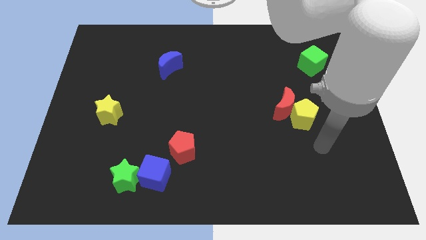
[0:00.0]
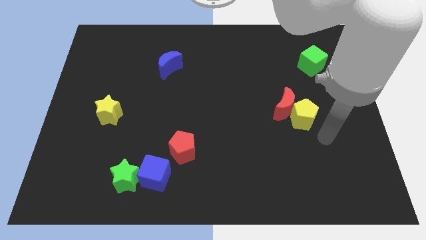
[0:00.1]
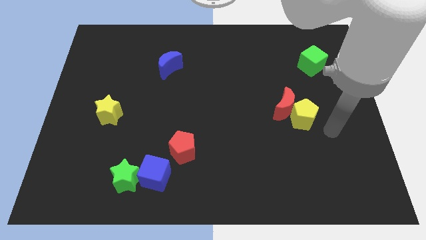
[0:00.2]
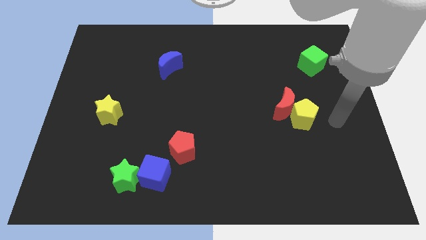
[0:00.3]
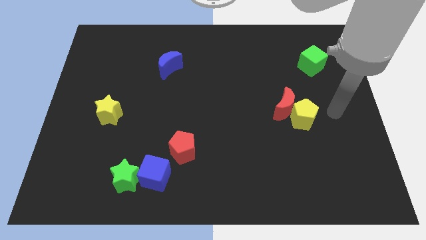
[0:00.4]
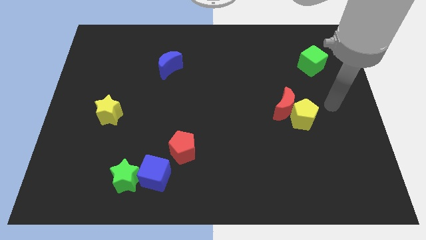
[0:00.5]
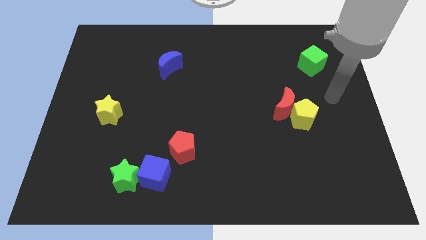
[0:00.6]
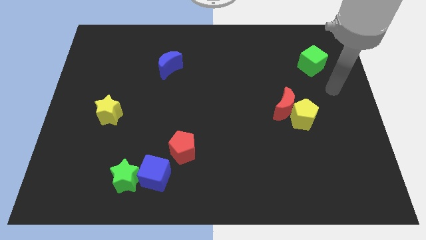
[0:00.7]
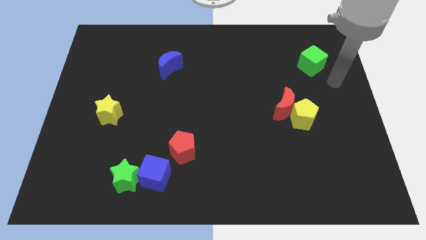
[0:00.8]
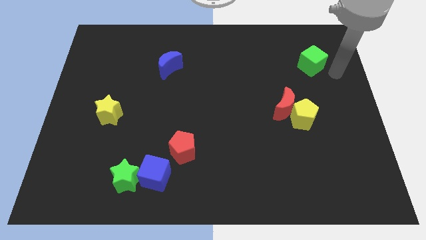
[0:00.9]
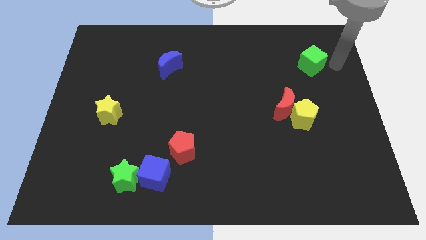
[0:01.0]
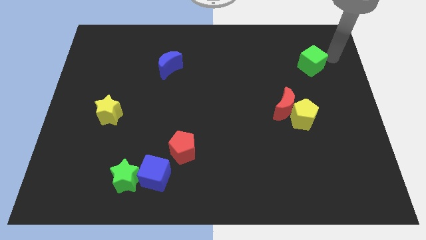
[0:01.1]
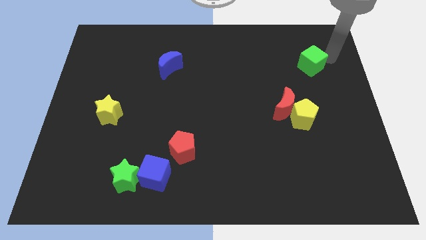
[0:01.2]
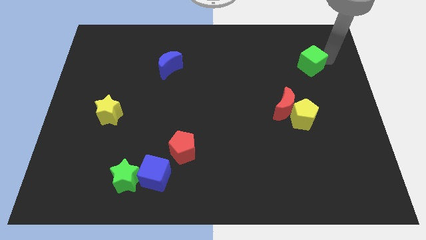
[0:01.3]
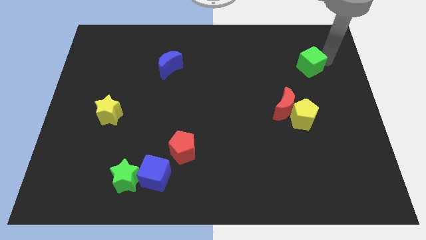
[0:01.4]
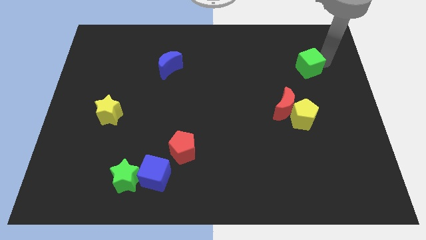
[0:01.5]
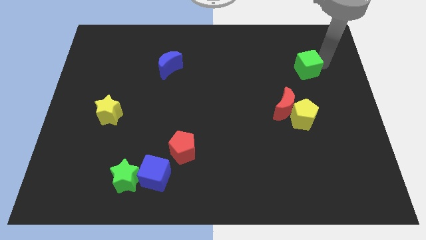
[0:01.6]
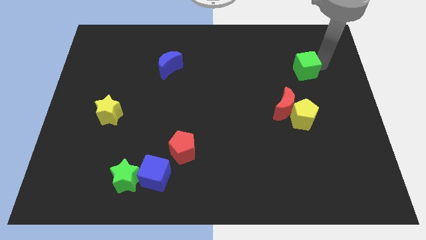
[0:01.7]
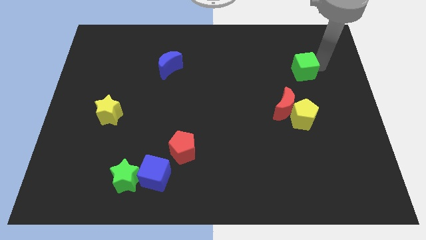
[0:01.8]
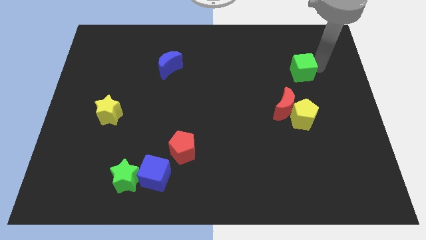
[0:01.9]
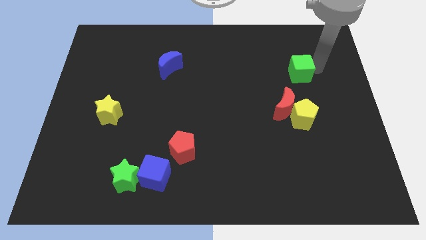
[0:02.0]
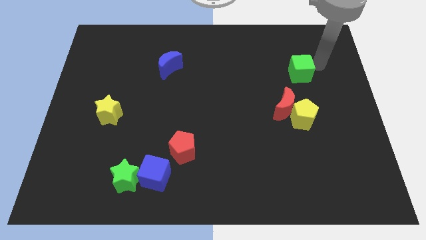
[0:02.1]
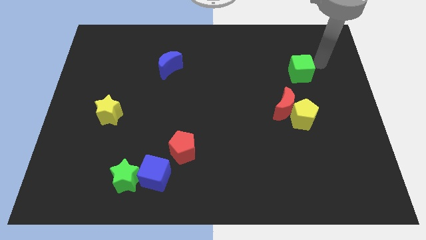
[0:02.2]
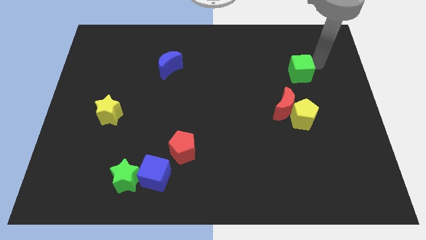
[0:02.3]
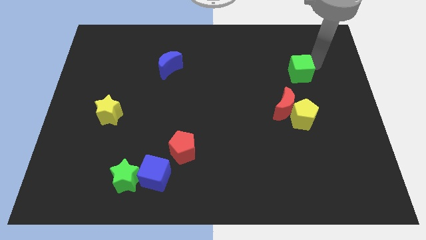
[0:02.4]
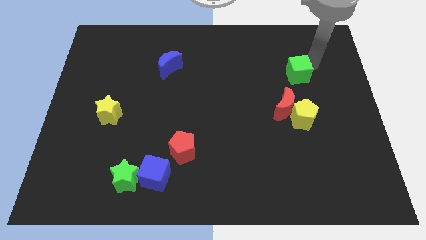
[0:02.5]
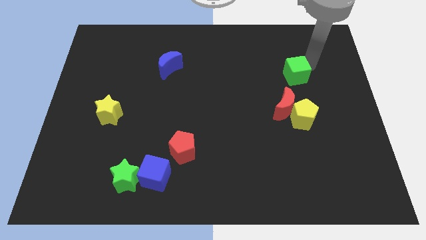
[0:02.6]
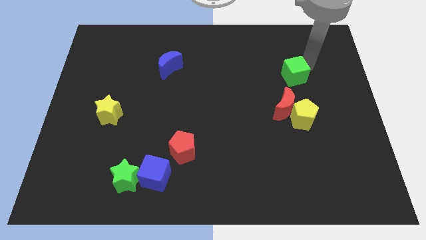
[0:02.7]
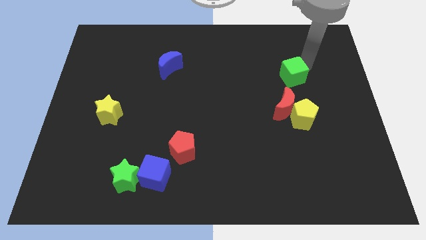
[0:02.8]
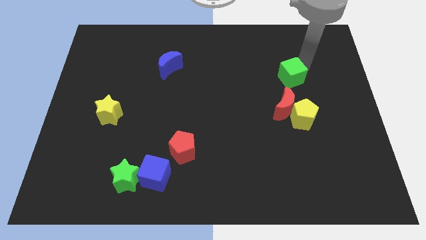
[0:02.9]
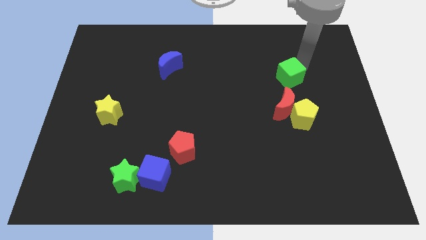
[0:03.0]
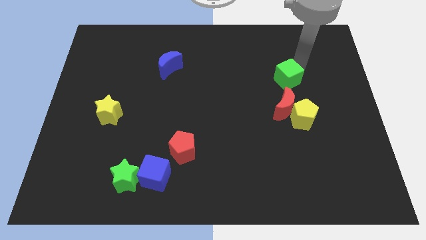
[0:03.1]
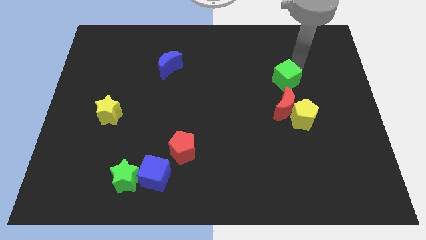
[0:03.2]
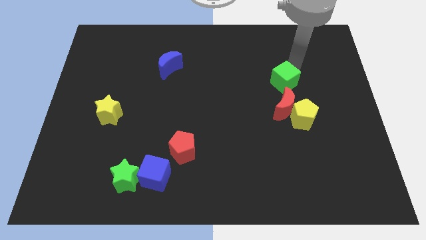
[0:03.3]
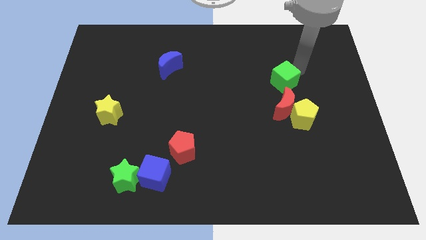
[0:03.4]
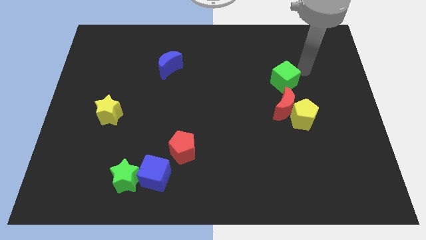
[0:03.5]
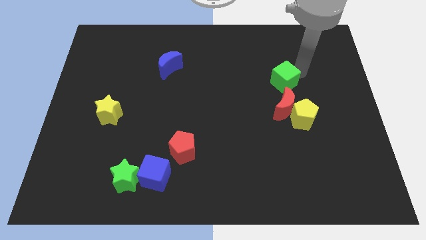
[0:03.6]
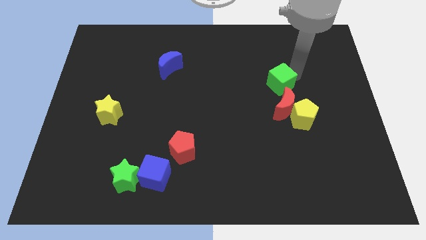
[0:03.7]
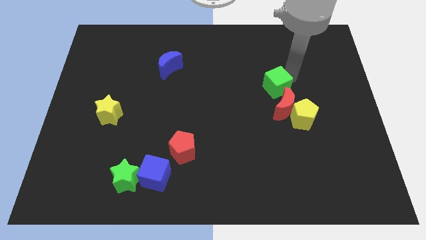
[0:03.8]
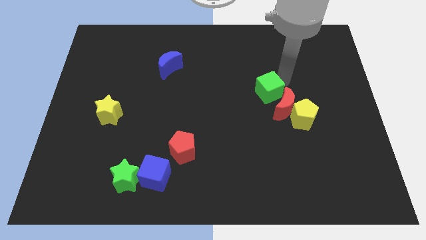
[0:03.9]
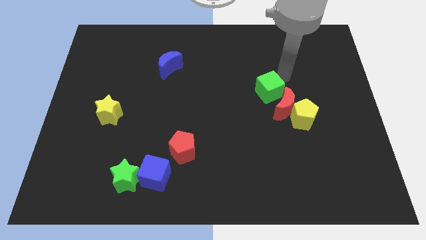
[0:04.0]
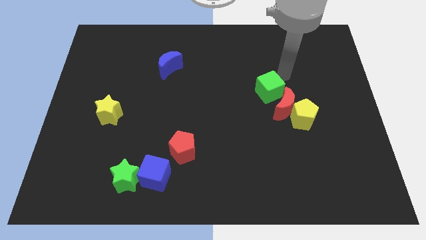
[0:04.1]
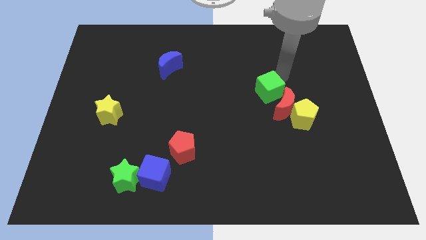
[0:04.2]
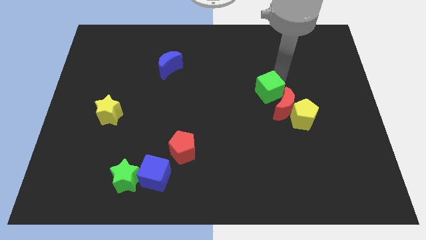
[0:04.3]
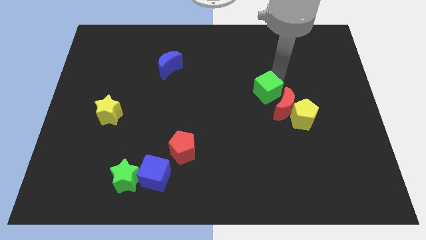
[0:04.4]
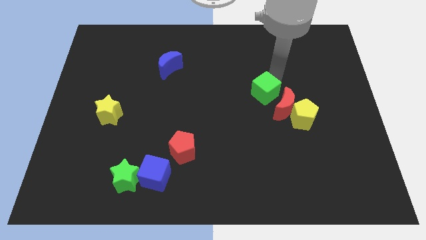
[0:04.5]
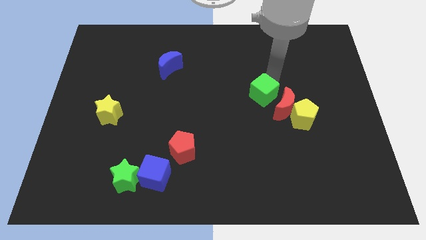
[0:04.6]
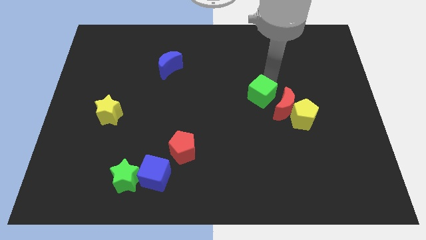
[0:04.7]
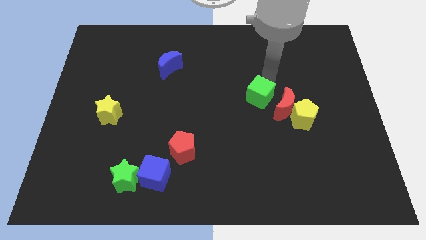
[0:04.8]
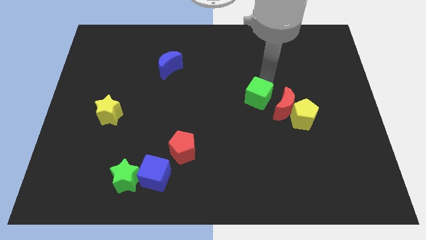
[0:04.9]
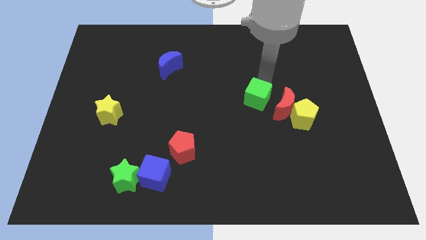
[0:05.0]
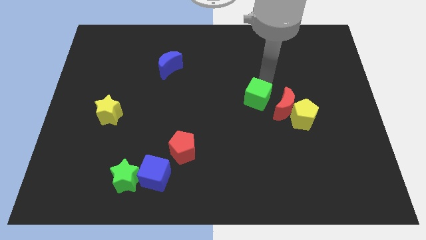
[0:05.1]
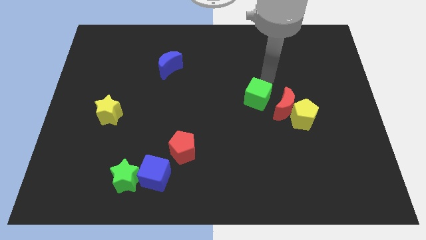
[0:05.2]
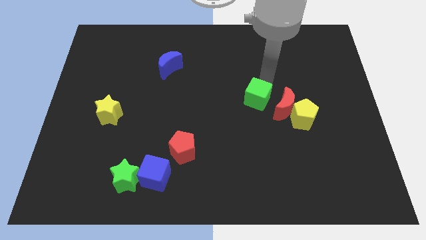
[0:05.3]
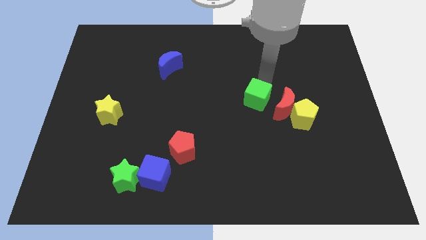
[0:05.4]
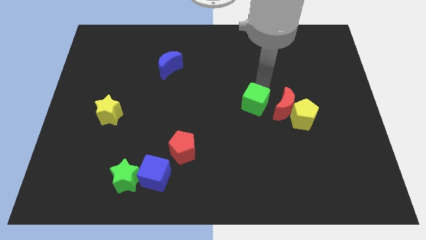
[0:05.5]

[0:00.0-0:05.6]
move the green cube downwards and then to the left

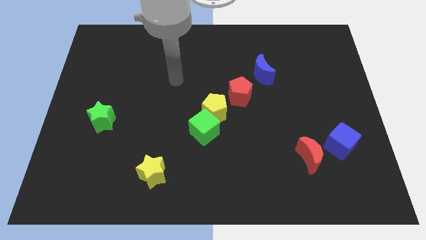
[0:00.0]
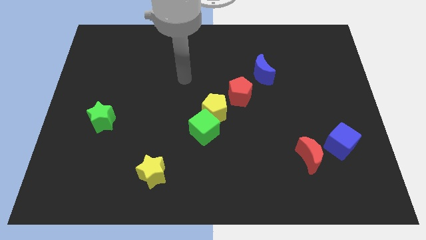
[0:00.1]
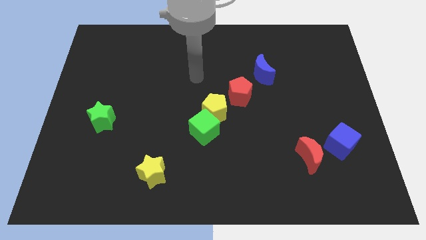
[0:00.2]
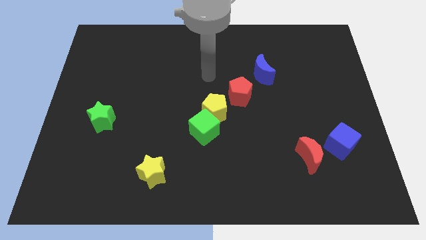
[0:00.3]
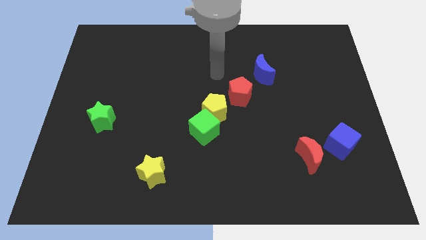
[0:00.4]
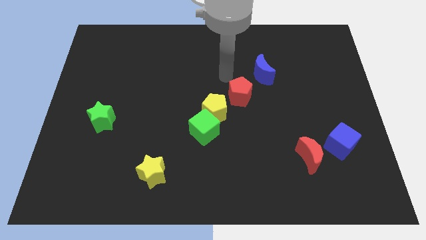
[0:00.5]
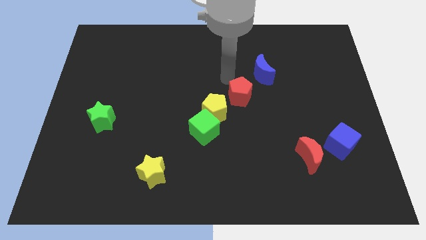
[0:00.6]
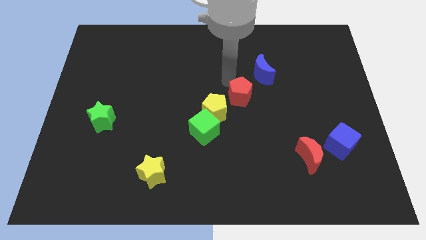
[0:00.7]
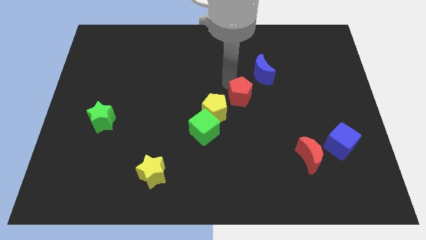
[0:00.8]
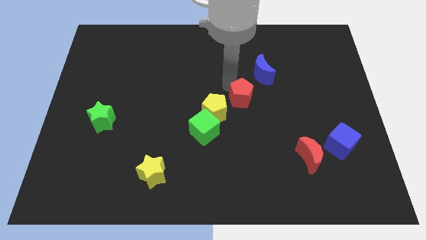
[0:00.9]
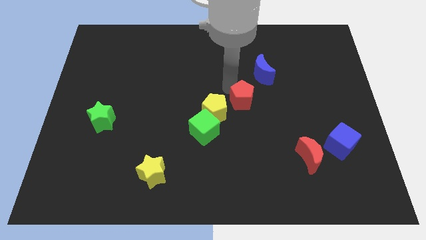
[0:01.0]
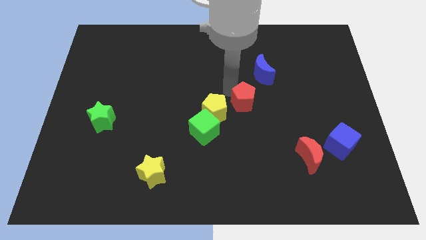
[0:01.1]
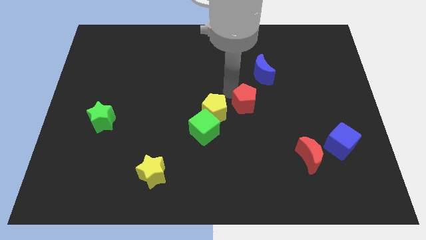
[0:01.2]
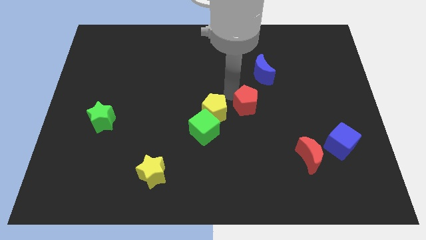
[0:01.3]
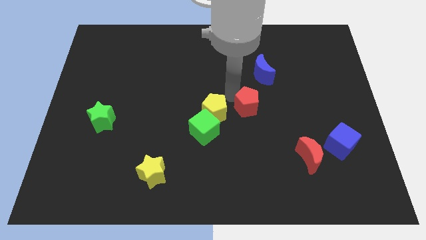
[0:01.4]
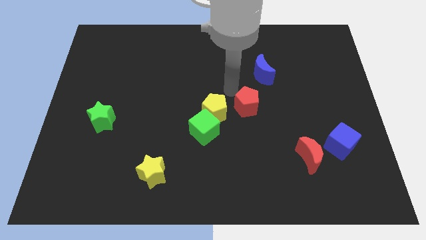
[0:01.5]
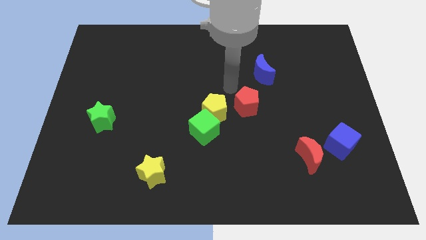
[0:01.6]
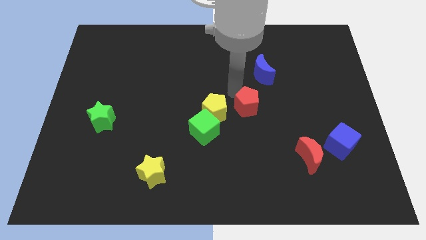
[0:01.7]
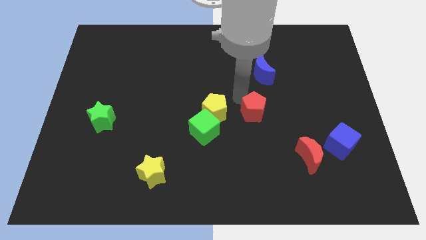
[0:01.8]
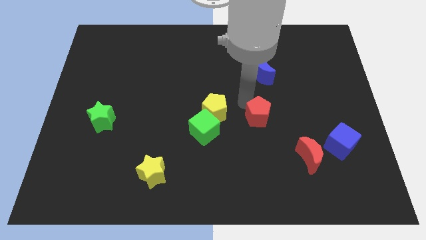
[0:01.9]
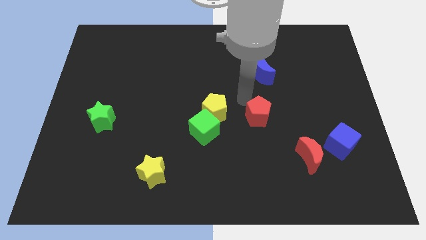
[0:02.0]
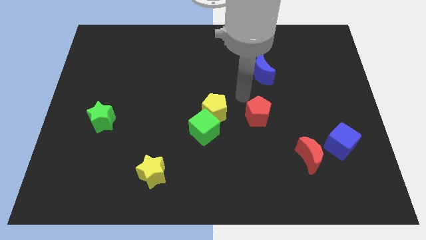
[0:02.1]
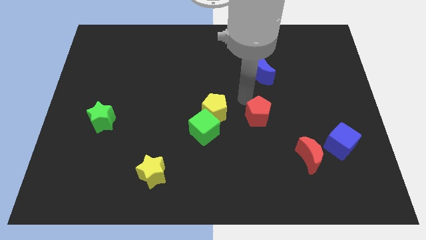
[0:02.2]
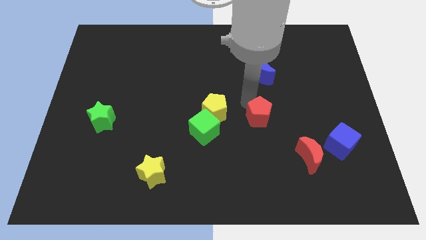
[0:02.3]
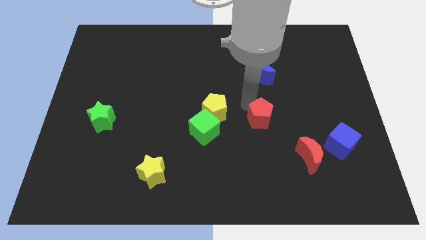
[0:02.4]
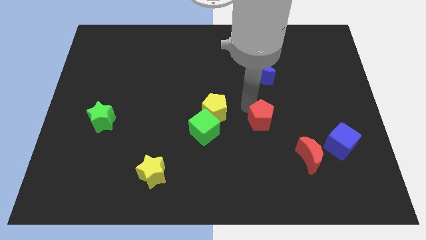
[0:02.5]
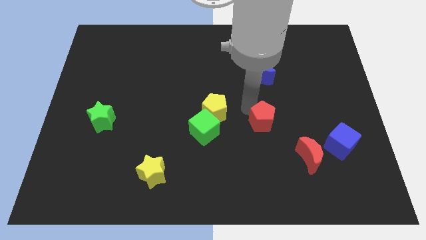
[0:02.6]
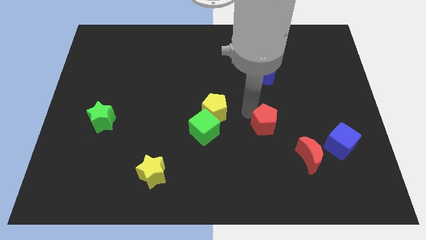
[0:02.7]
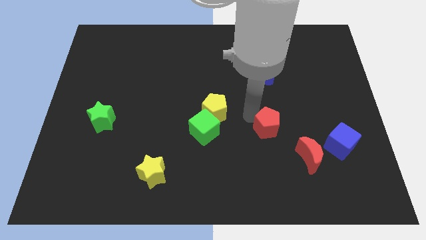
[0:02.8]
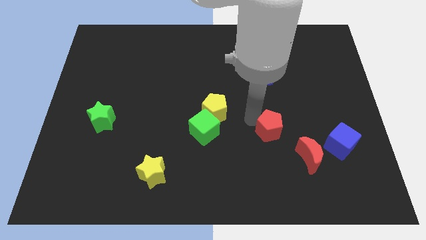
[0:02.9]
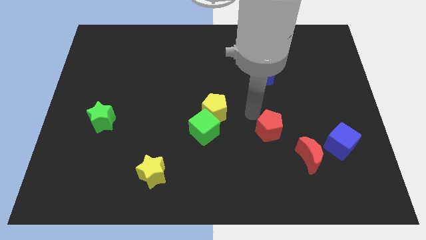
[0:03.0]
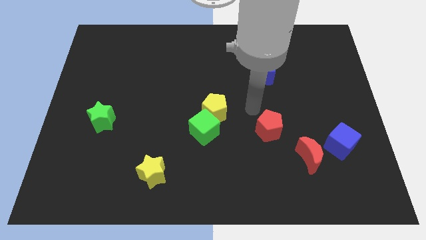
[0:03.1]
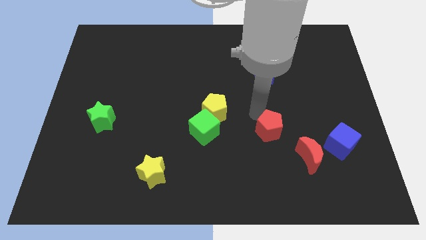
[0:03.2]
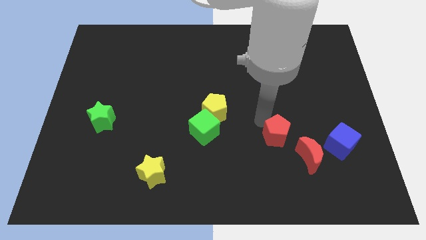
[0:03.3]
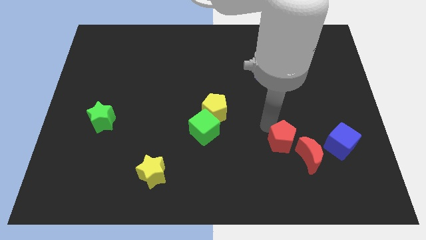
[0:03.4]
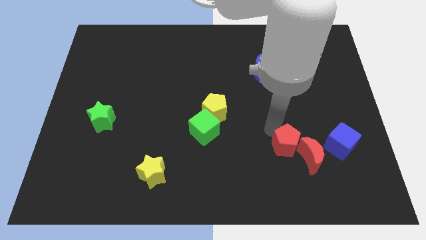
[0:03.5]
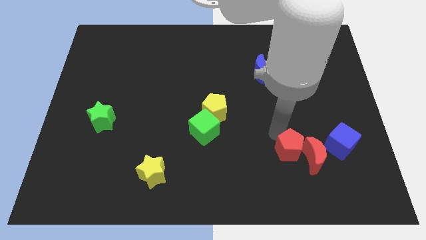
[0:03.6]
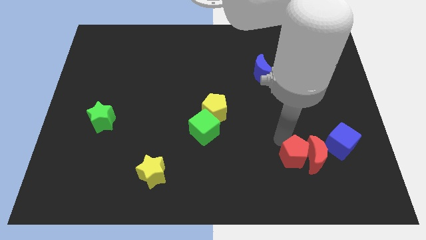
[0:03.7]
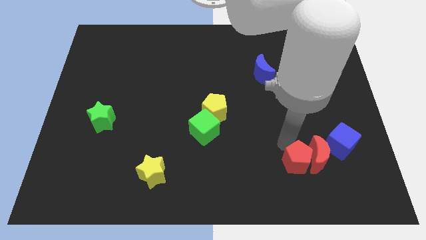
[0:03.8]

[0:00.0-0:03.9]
move the red pentagon down and right
